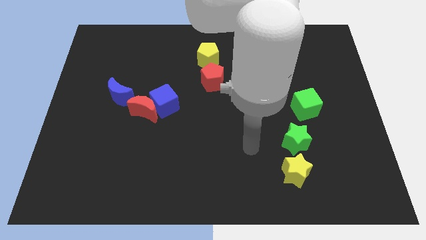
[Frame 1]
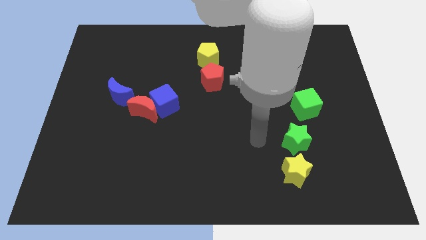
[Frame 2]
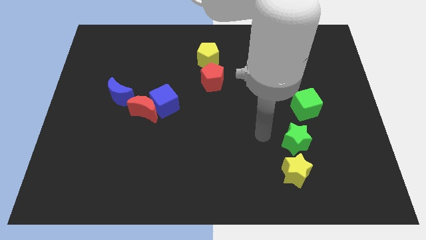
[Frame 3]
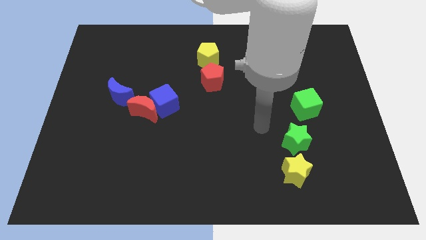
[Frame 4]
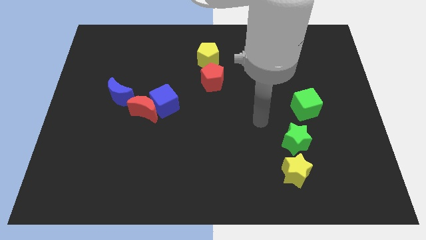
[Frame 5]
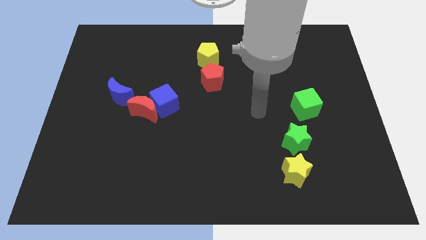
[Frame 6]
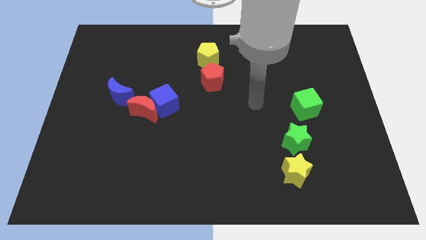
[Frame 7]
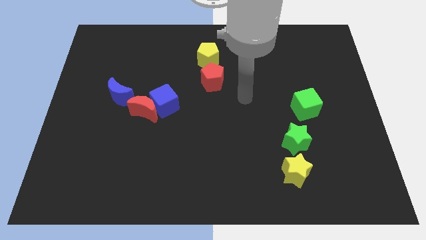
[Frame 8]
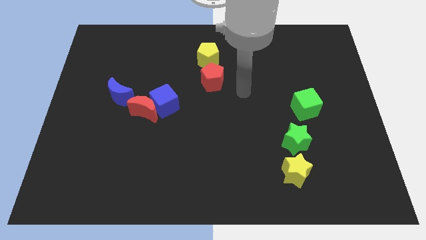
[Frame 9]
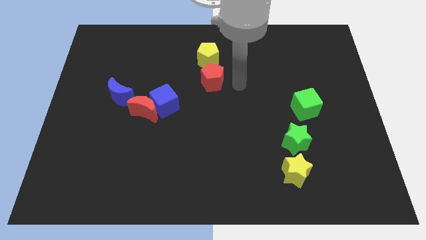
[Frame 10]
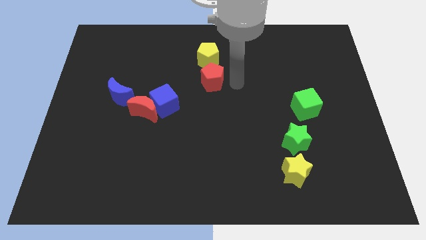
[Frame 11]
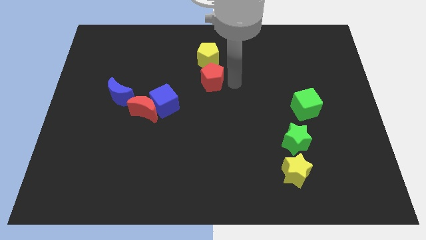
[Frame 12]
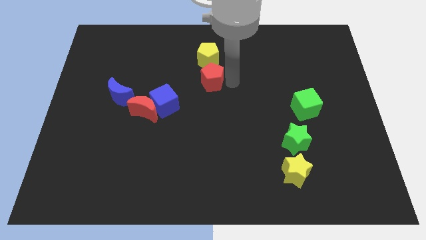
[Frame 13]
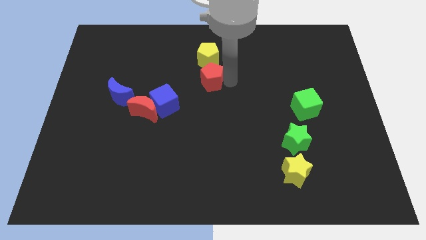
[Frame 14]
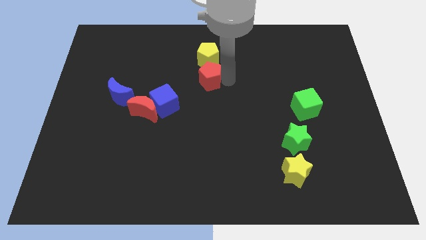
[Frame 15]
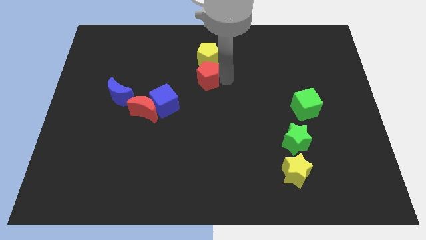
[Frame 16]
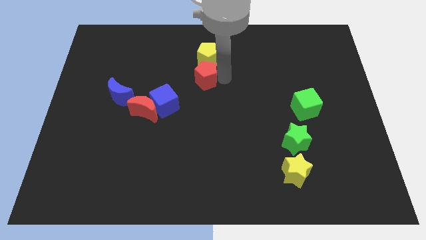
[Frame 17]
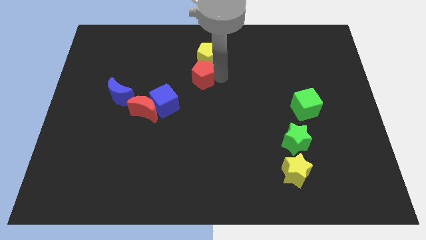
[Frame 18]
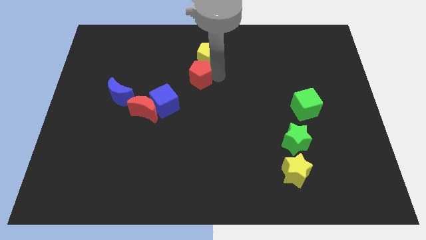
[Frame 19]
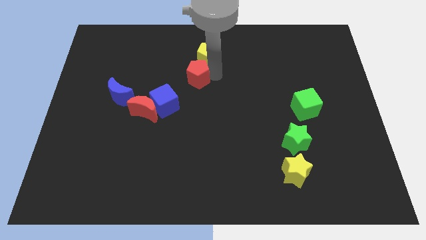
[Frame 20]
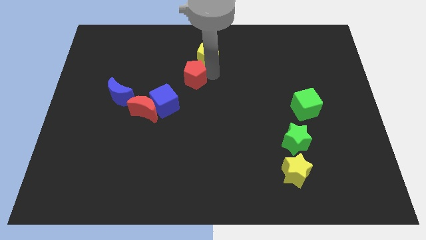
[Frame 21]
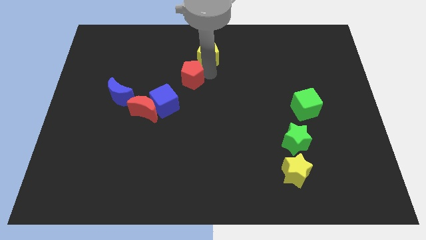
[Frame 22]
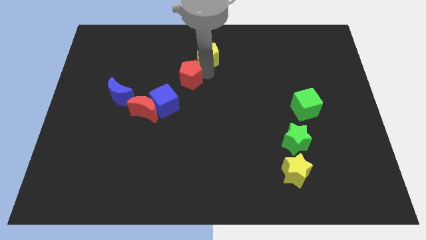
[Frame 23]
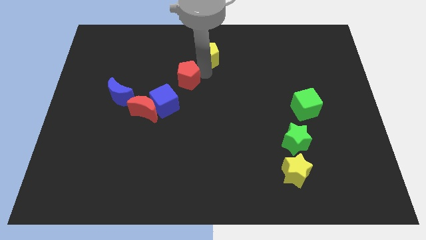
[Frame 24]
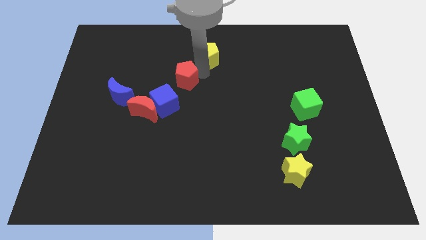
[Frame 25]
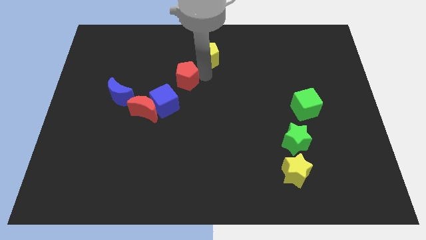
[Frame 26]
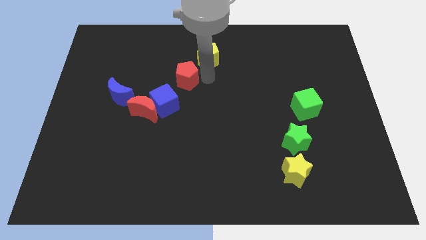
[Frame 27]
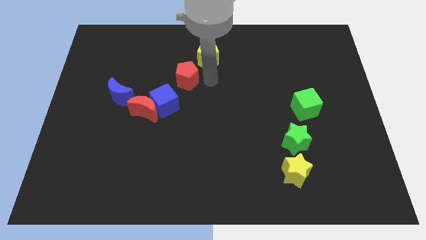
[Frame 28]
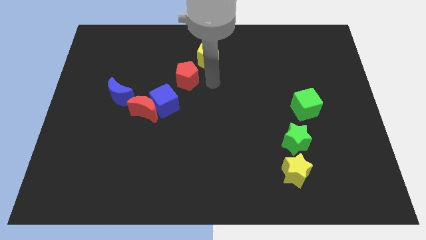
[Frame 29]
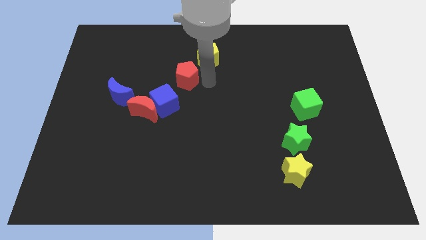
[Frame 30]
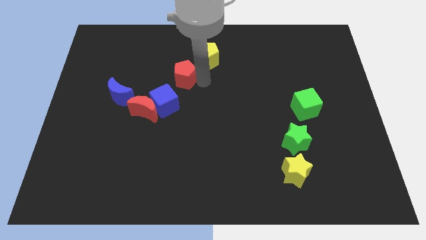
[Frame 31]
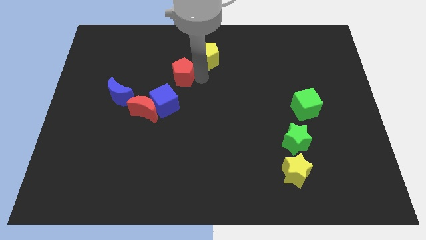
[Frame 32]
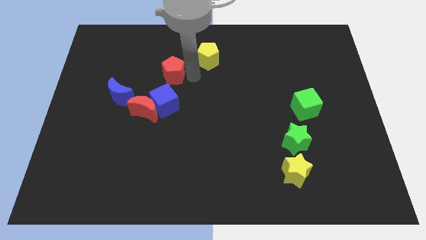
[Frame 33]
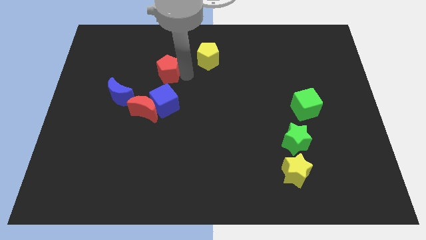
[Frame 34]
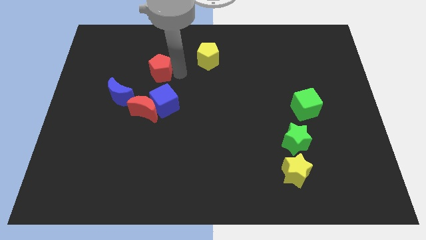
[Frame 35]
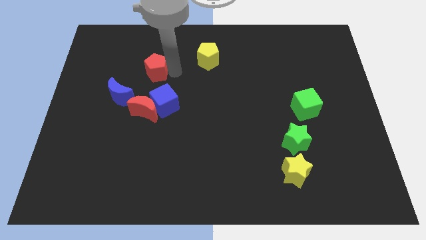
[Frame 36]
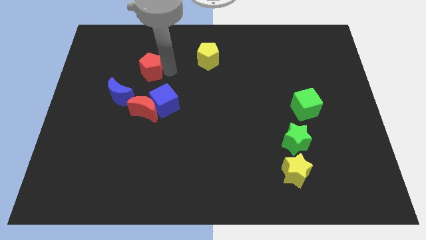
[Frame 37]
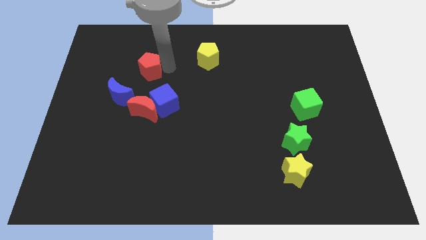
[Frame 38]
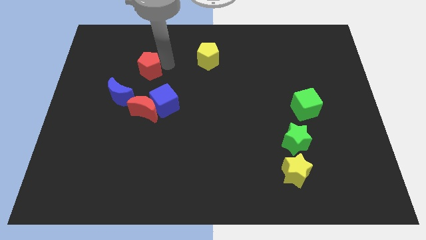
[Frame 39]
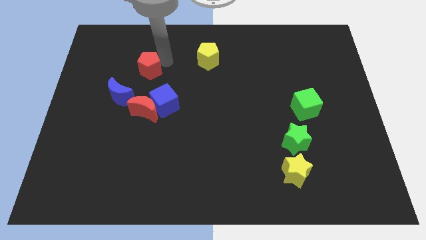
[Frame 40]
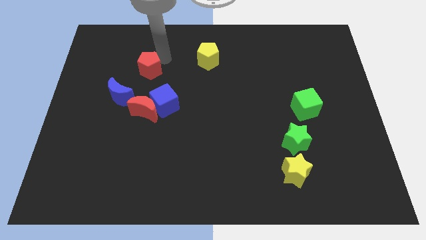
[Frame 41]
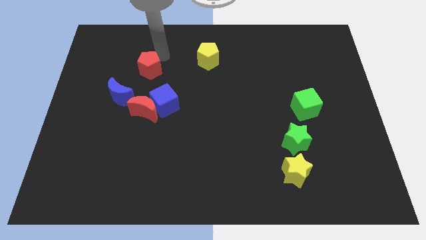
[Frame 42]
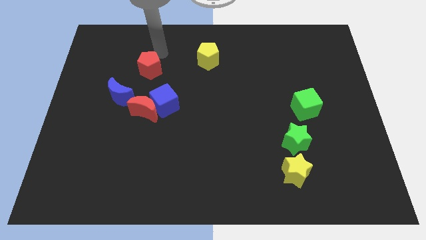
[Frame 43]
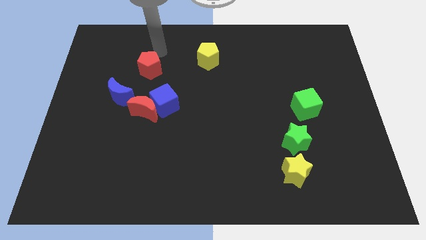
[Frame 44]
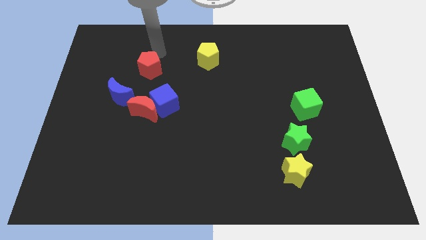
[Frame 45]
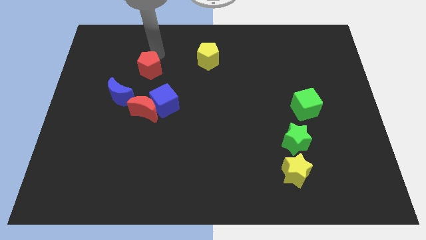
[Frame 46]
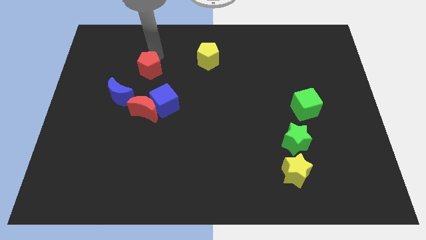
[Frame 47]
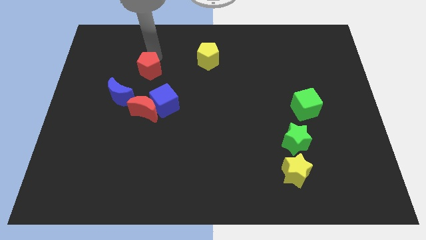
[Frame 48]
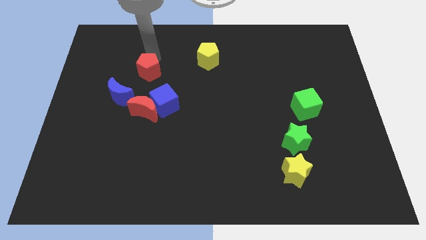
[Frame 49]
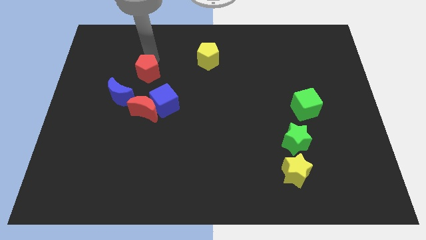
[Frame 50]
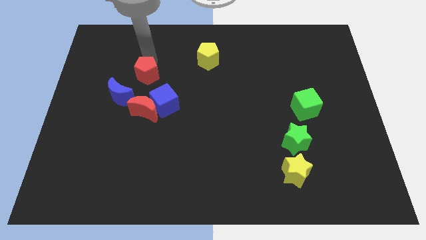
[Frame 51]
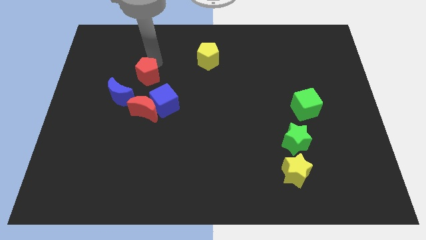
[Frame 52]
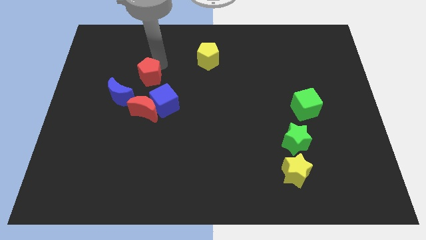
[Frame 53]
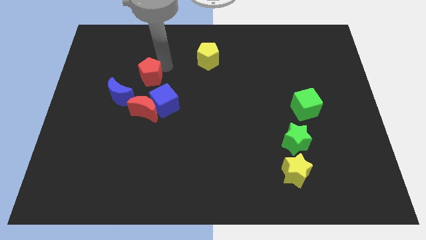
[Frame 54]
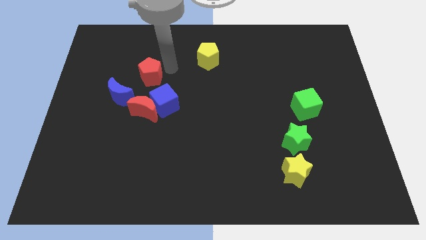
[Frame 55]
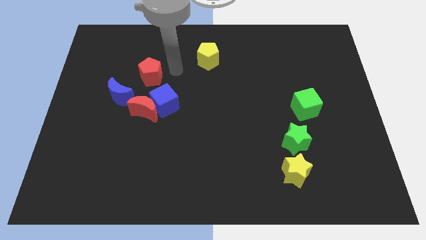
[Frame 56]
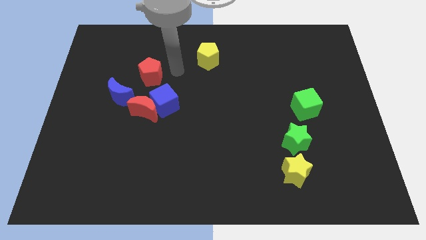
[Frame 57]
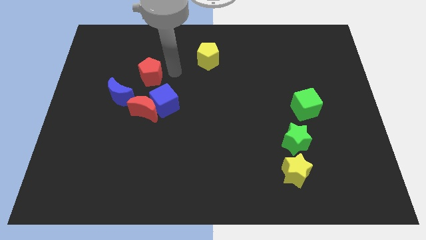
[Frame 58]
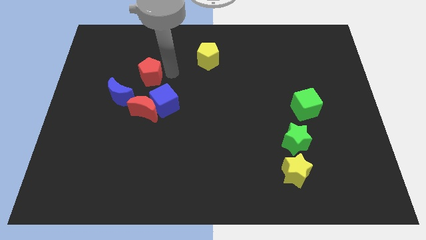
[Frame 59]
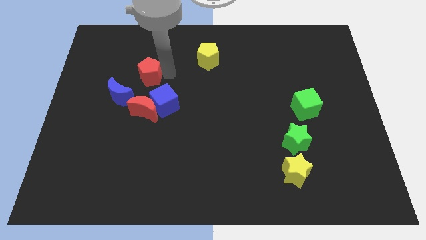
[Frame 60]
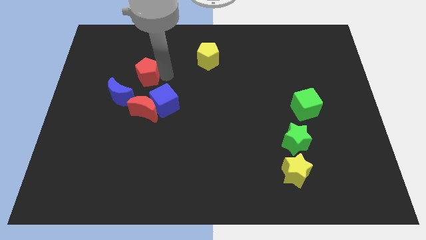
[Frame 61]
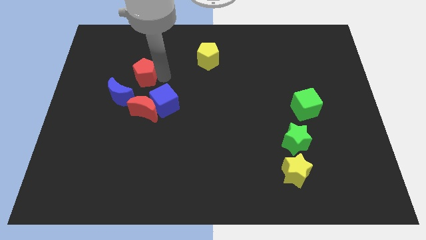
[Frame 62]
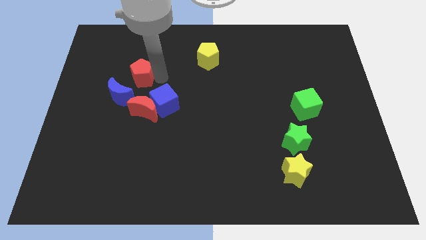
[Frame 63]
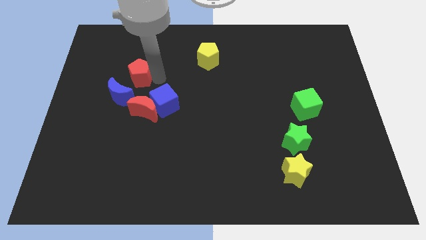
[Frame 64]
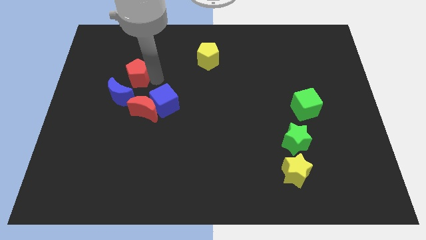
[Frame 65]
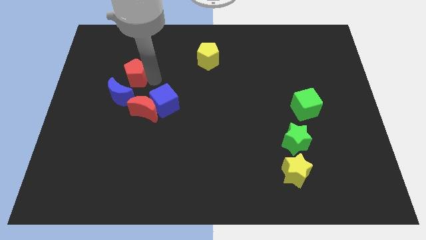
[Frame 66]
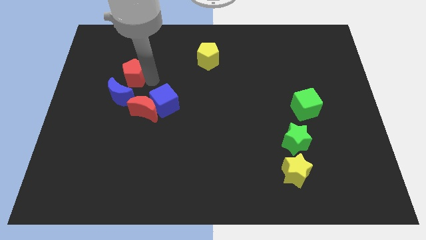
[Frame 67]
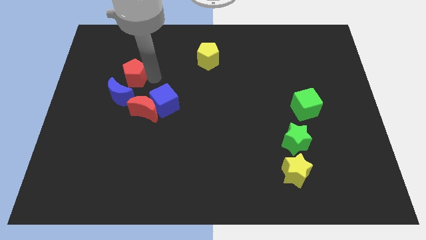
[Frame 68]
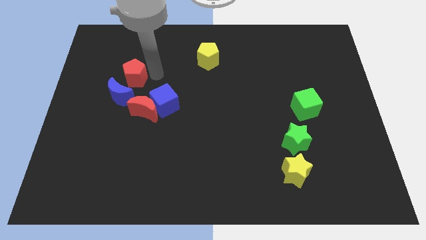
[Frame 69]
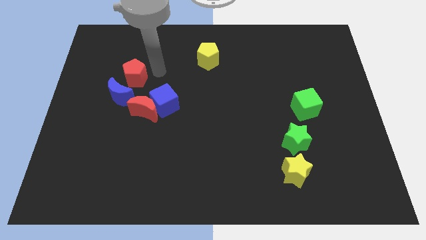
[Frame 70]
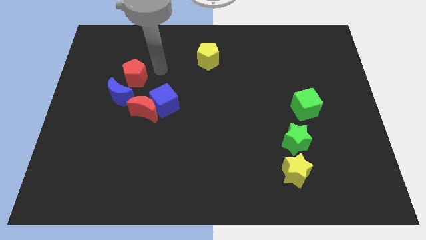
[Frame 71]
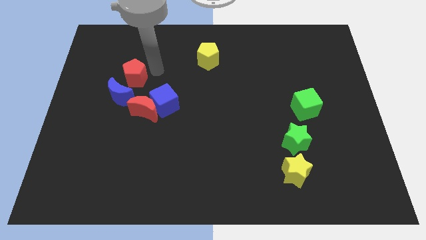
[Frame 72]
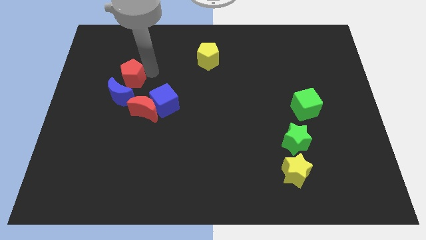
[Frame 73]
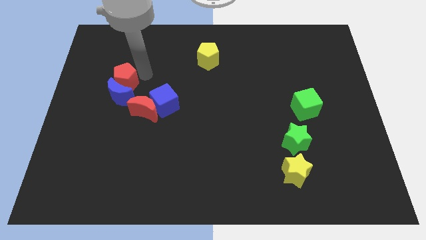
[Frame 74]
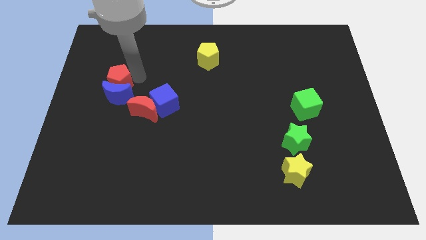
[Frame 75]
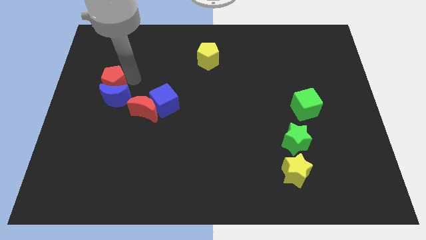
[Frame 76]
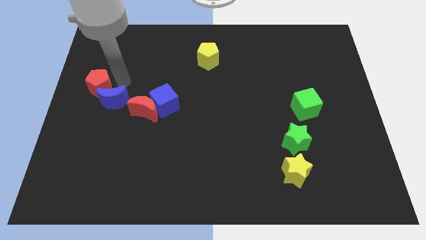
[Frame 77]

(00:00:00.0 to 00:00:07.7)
move the red pentagon to the center left
